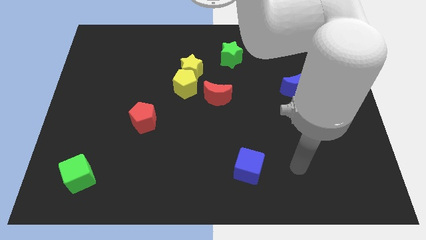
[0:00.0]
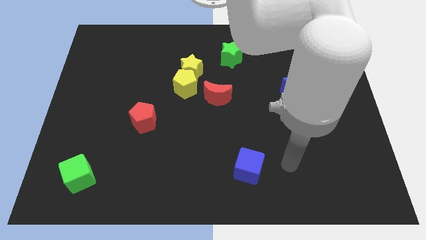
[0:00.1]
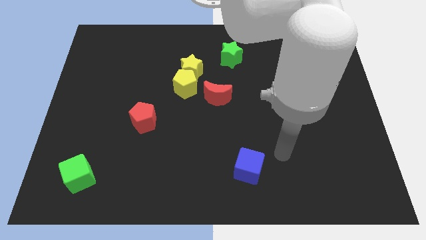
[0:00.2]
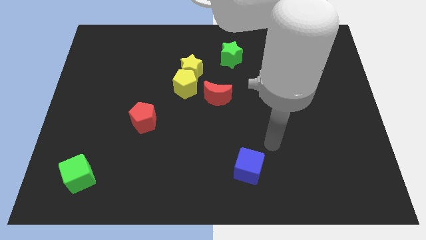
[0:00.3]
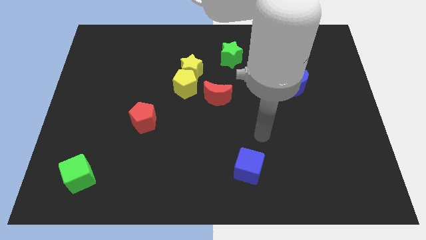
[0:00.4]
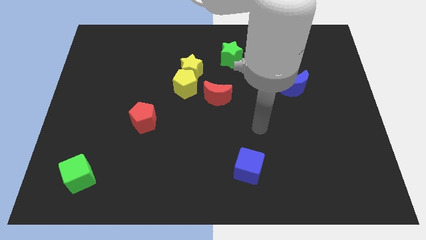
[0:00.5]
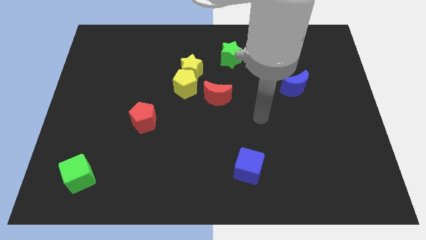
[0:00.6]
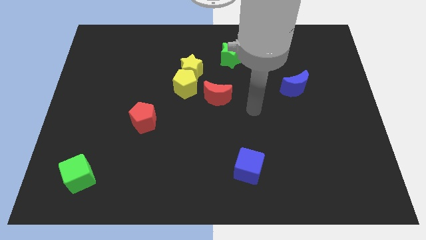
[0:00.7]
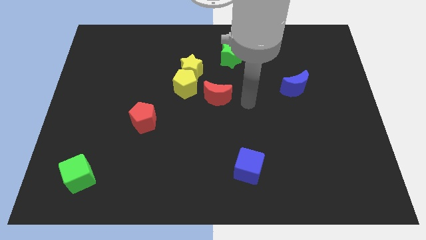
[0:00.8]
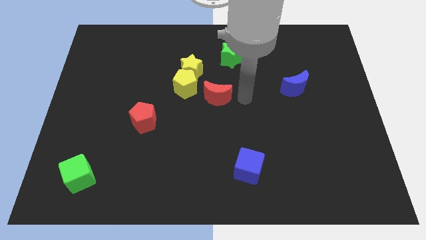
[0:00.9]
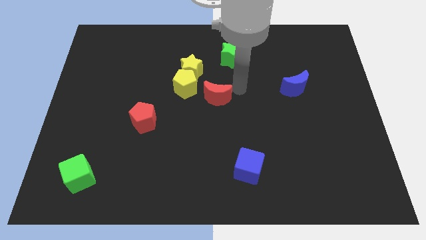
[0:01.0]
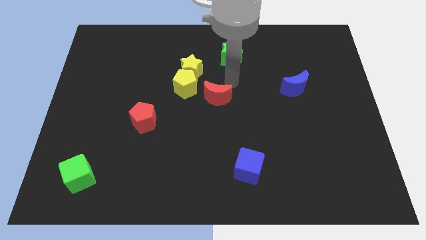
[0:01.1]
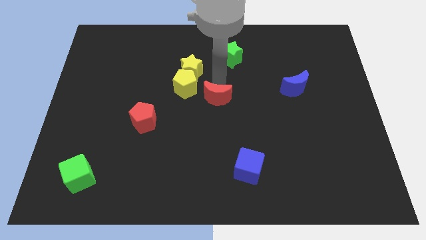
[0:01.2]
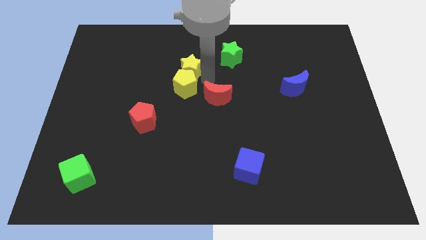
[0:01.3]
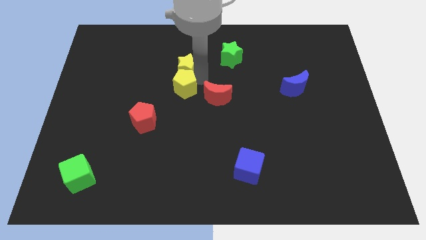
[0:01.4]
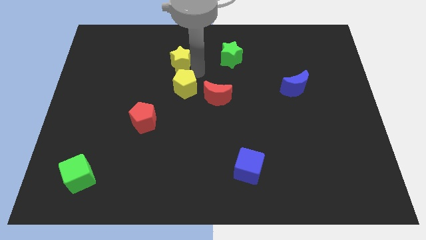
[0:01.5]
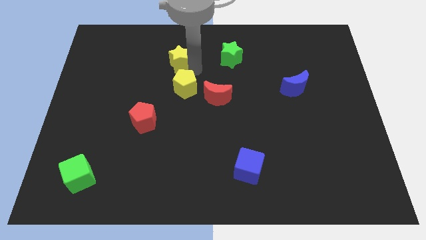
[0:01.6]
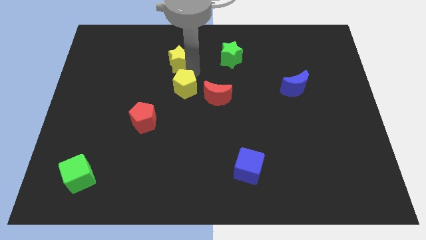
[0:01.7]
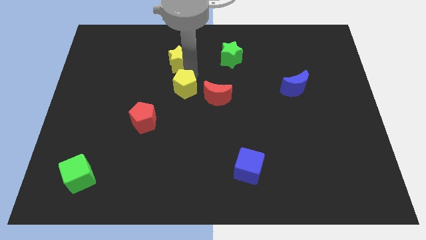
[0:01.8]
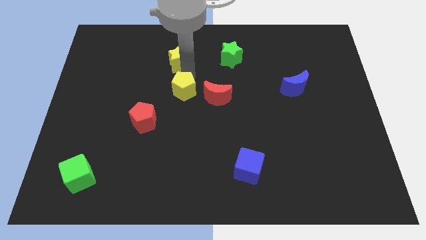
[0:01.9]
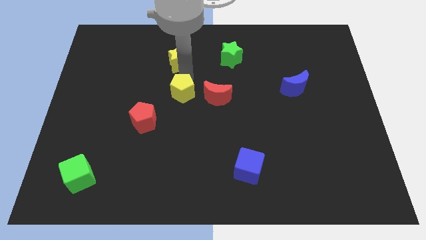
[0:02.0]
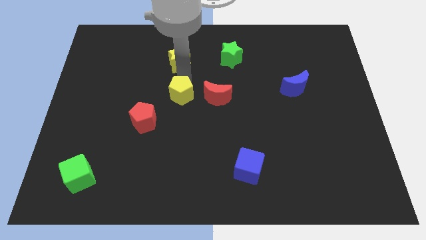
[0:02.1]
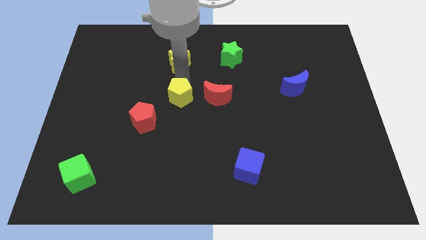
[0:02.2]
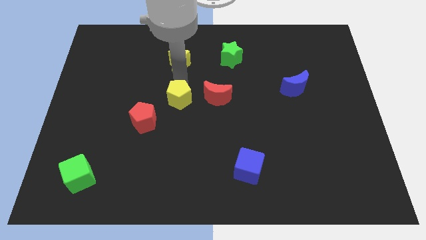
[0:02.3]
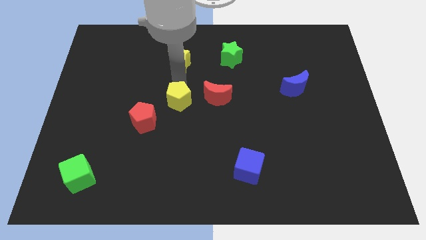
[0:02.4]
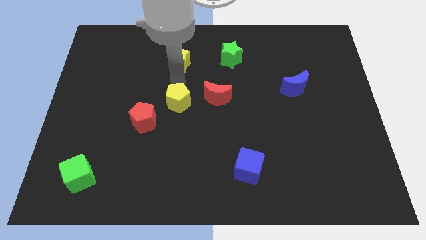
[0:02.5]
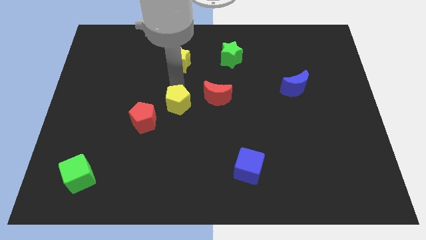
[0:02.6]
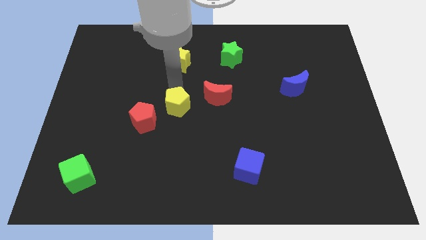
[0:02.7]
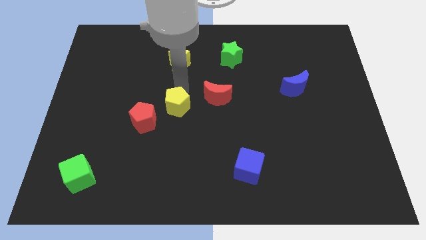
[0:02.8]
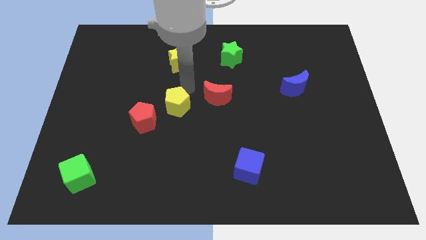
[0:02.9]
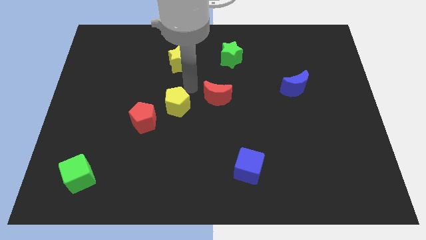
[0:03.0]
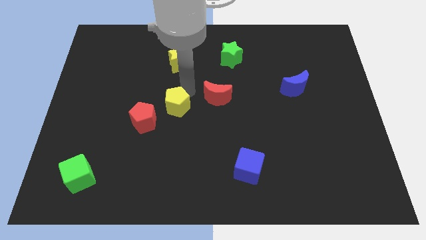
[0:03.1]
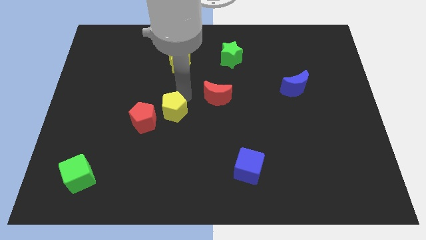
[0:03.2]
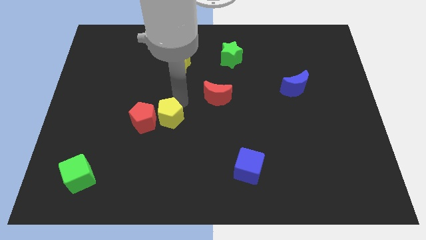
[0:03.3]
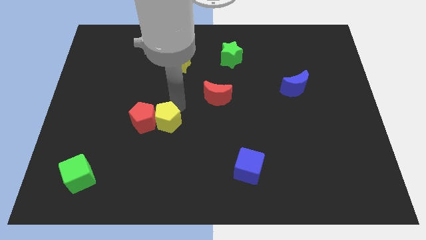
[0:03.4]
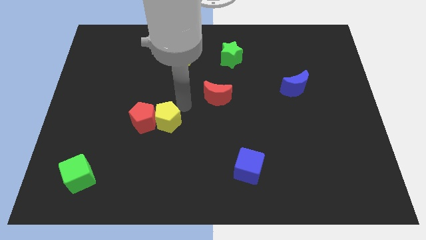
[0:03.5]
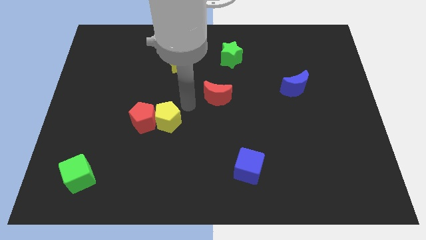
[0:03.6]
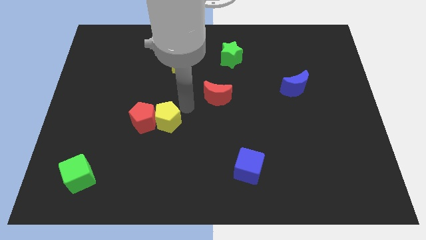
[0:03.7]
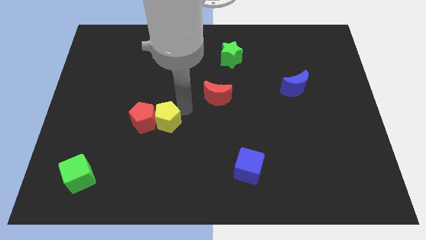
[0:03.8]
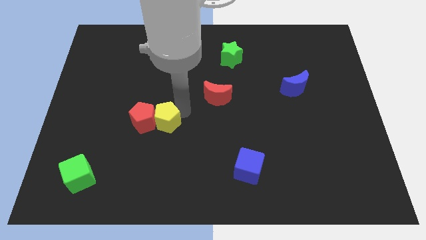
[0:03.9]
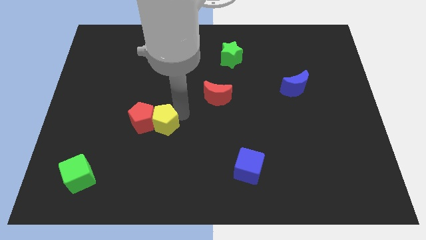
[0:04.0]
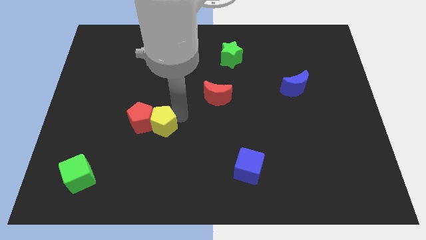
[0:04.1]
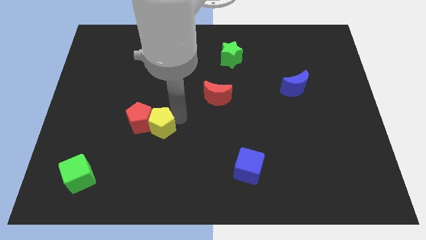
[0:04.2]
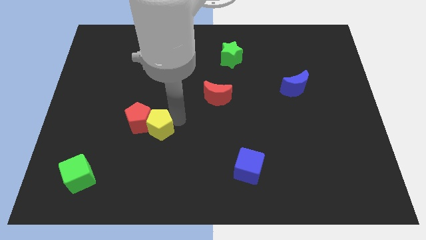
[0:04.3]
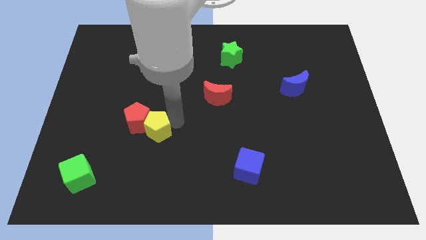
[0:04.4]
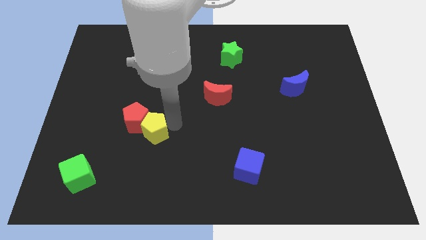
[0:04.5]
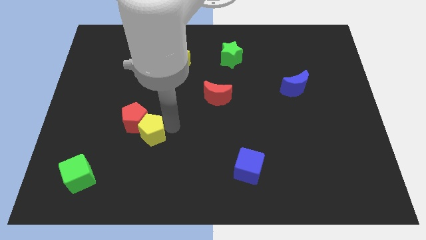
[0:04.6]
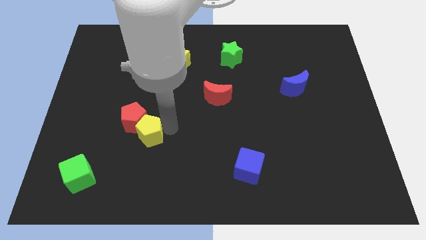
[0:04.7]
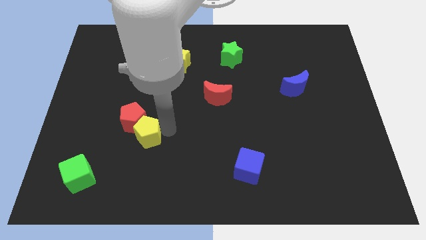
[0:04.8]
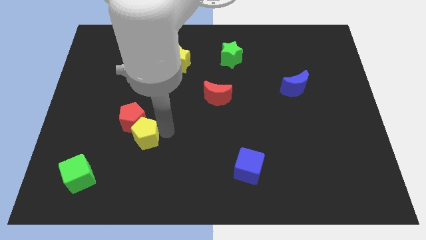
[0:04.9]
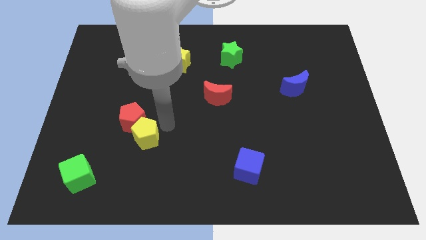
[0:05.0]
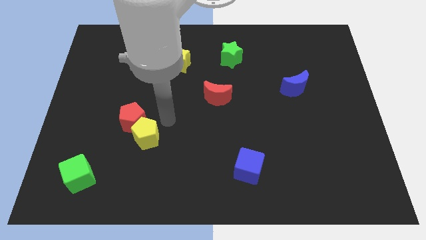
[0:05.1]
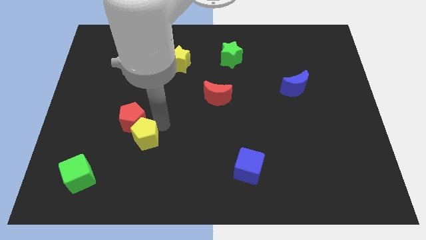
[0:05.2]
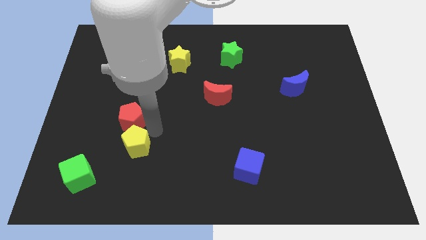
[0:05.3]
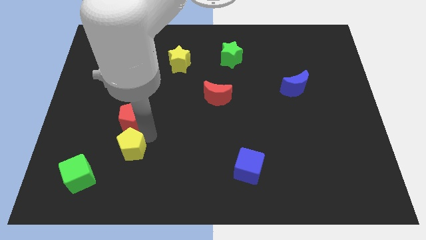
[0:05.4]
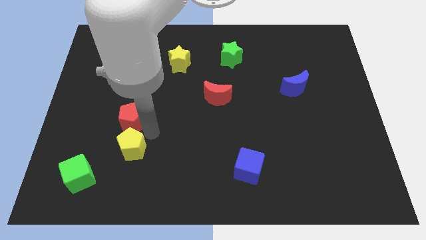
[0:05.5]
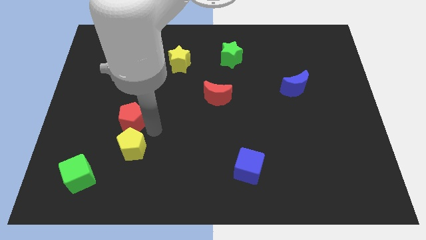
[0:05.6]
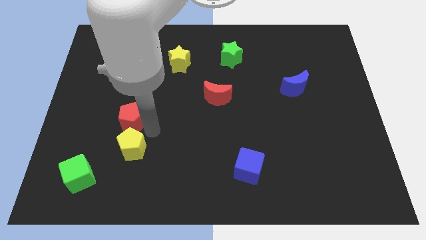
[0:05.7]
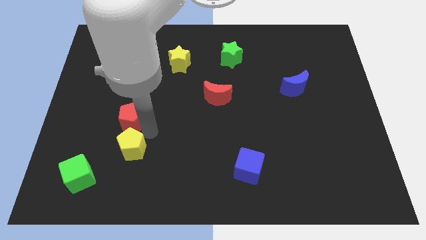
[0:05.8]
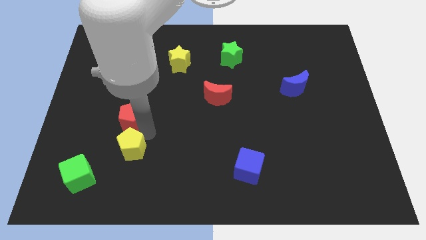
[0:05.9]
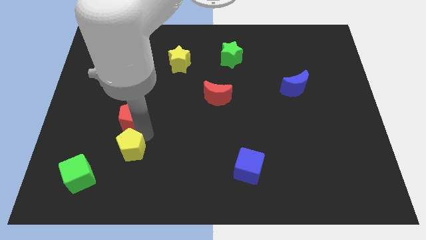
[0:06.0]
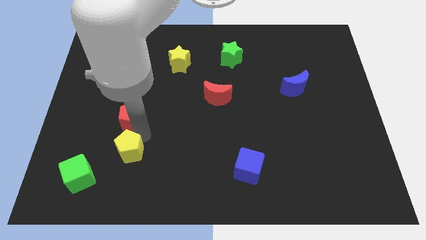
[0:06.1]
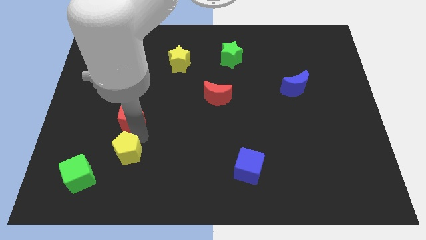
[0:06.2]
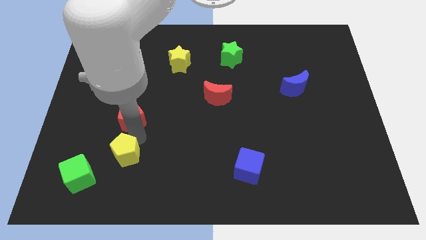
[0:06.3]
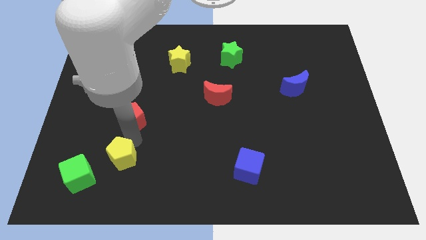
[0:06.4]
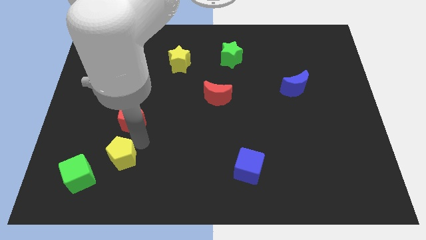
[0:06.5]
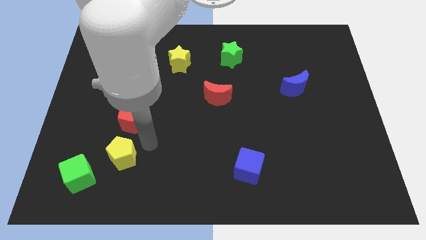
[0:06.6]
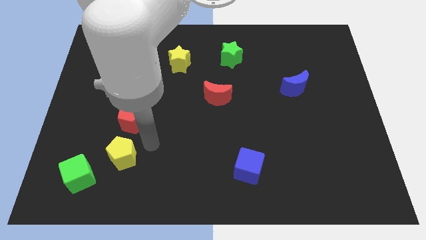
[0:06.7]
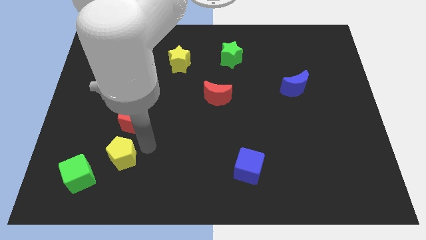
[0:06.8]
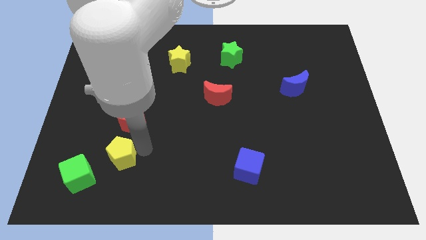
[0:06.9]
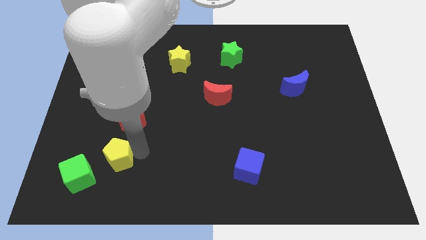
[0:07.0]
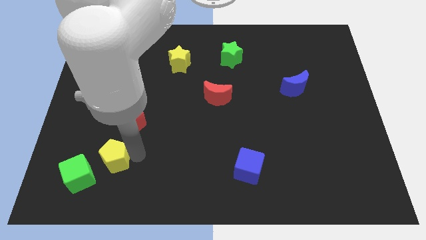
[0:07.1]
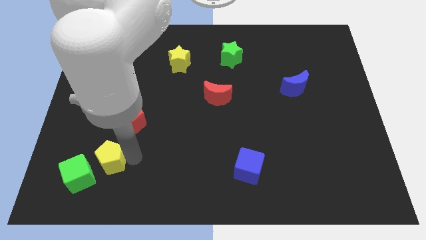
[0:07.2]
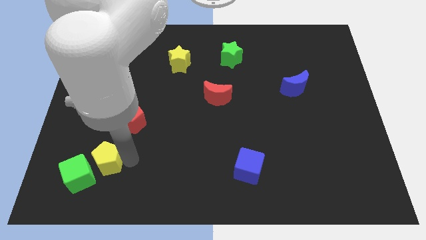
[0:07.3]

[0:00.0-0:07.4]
put the yellow pentagon towards the green cube
